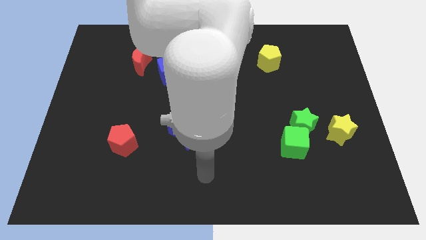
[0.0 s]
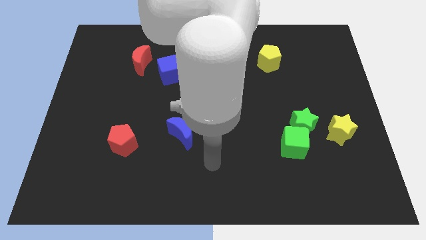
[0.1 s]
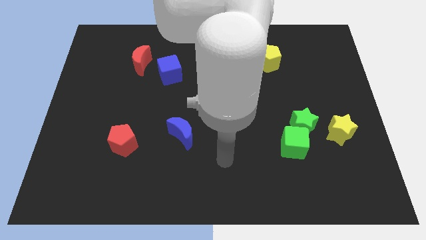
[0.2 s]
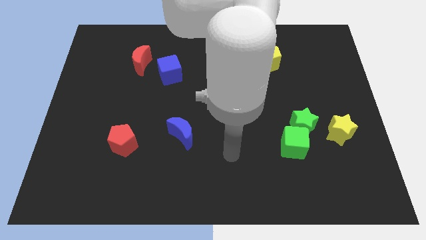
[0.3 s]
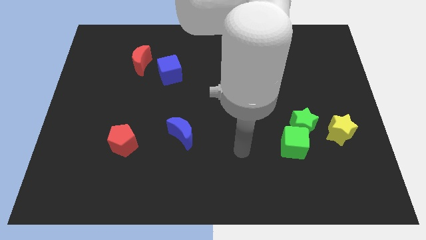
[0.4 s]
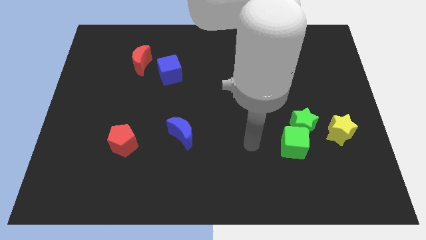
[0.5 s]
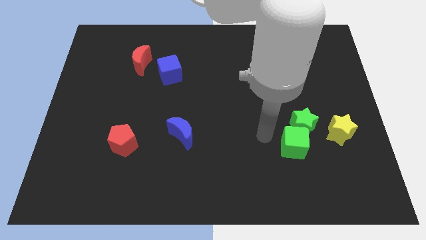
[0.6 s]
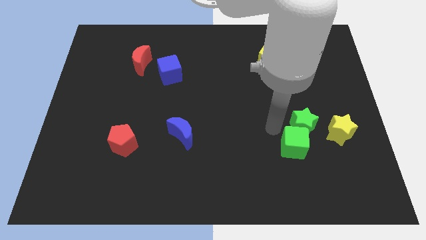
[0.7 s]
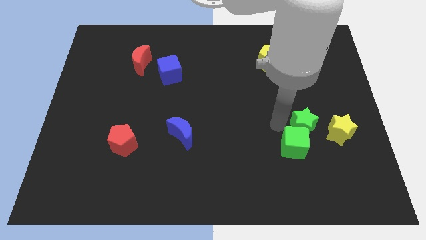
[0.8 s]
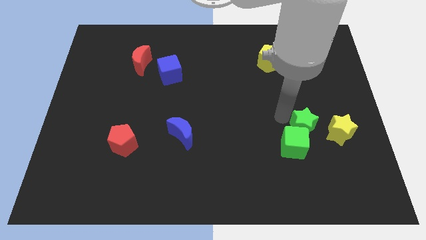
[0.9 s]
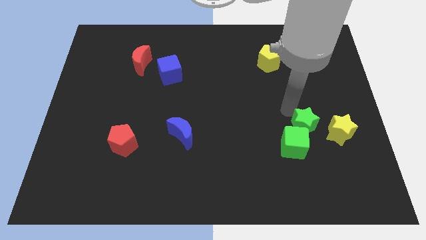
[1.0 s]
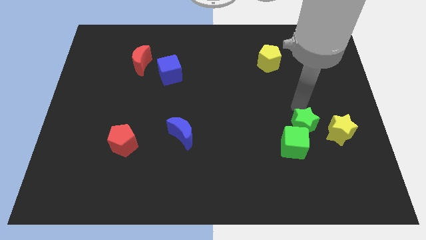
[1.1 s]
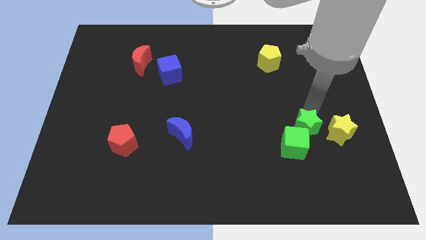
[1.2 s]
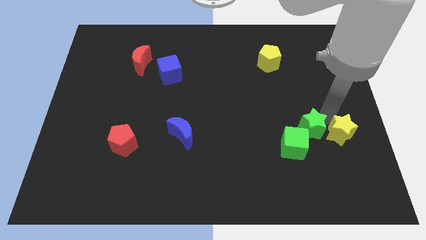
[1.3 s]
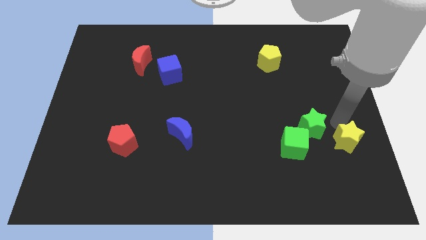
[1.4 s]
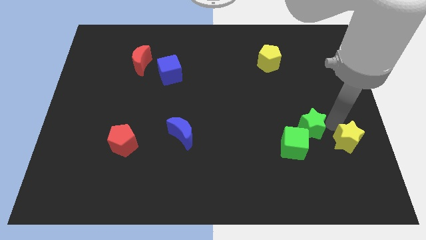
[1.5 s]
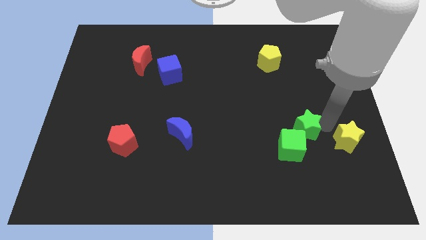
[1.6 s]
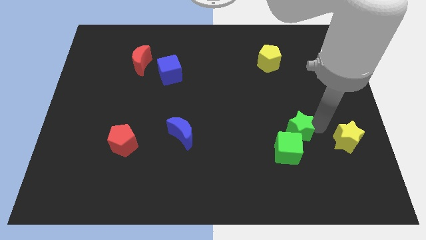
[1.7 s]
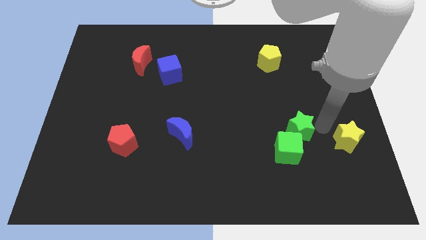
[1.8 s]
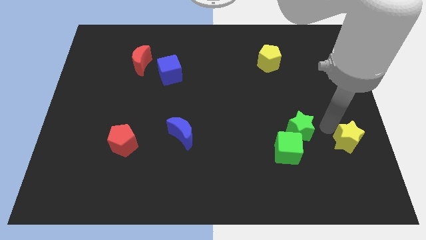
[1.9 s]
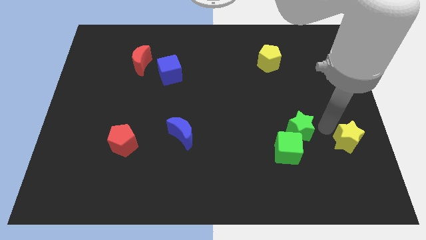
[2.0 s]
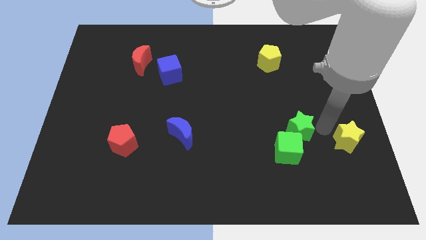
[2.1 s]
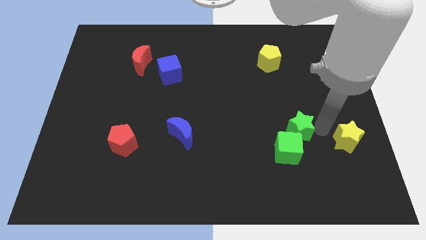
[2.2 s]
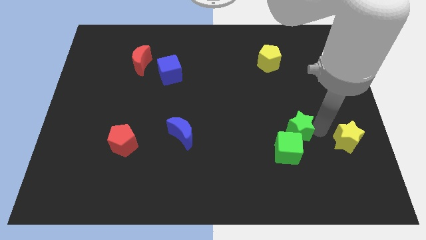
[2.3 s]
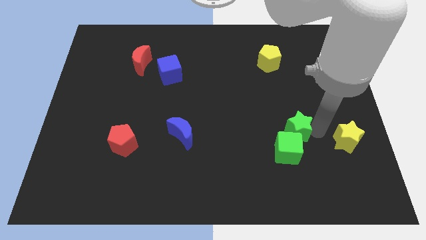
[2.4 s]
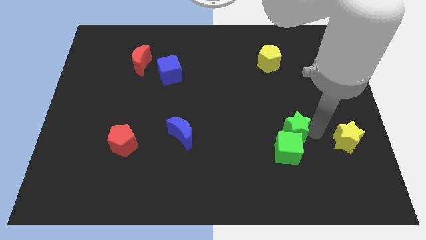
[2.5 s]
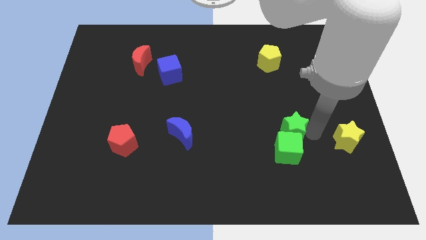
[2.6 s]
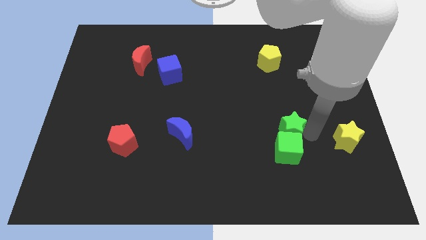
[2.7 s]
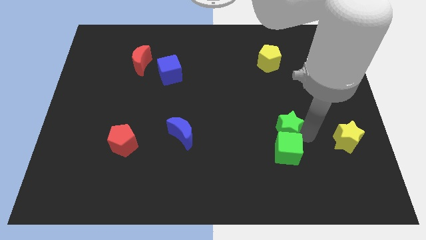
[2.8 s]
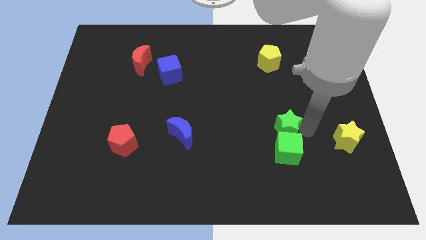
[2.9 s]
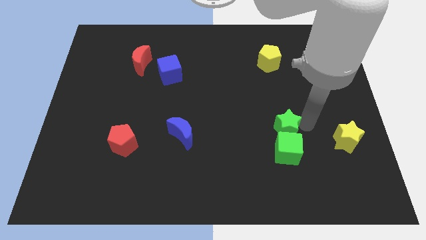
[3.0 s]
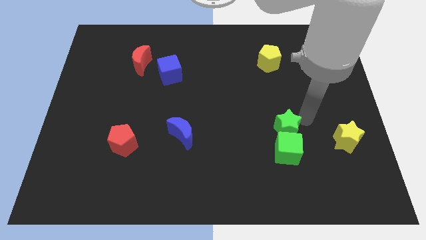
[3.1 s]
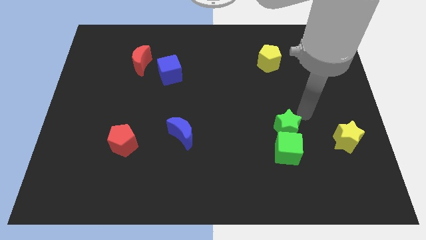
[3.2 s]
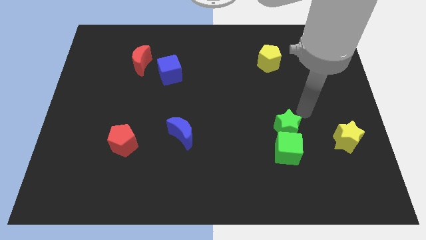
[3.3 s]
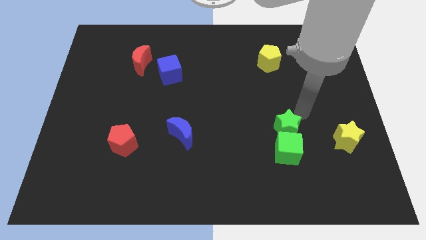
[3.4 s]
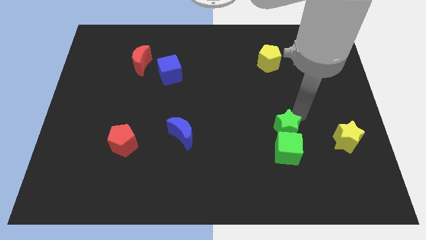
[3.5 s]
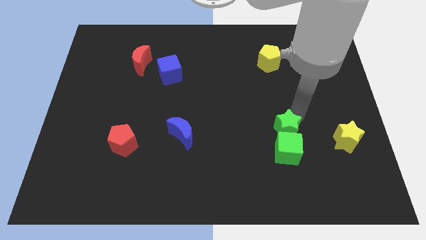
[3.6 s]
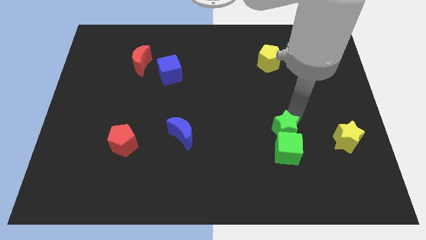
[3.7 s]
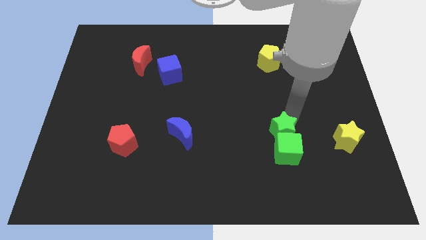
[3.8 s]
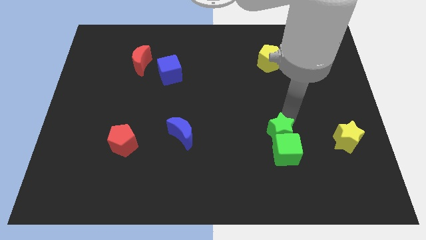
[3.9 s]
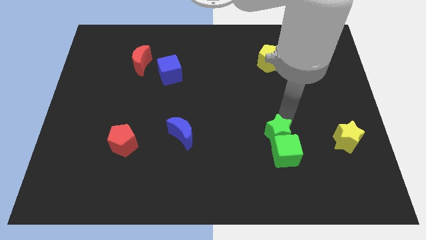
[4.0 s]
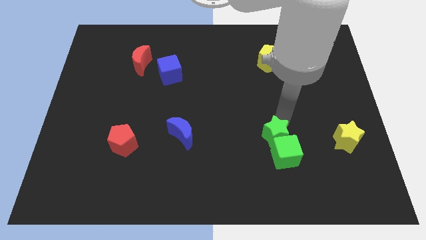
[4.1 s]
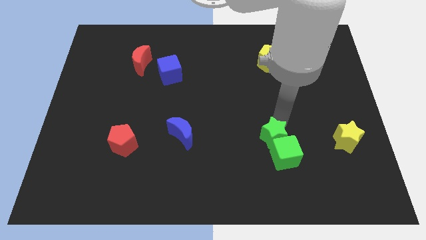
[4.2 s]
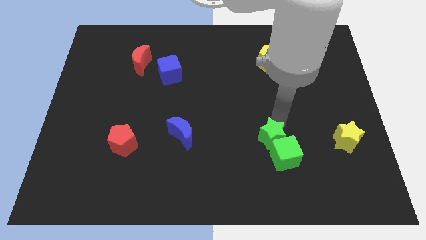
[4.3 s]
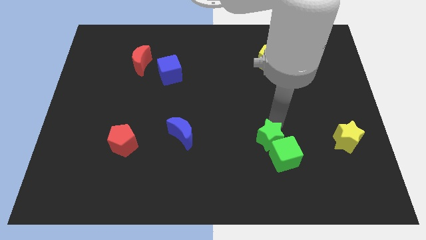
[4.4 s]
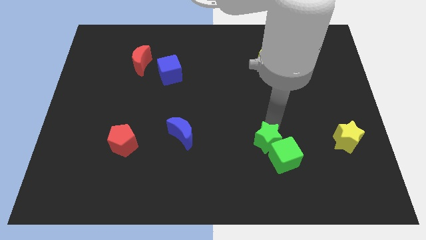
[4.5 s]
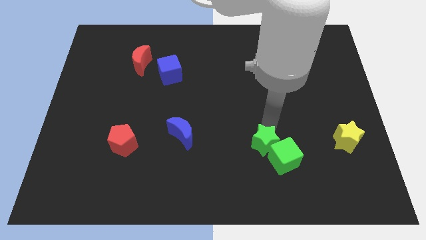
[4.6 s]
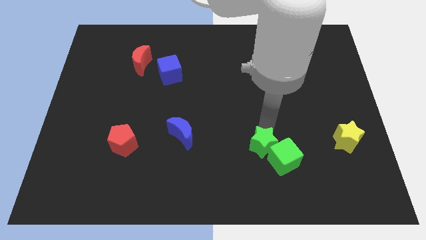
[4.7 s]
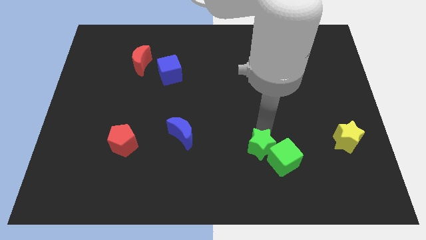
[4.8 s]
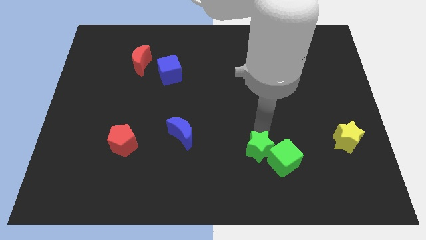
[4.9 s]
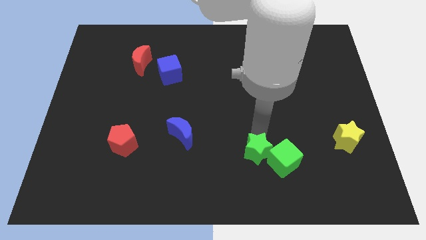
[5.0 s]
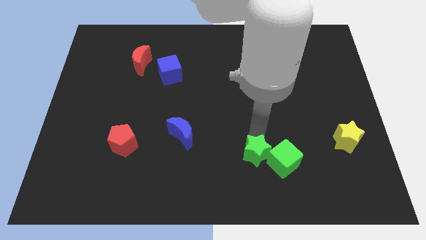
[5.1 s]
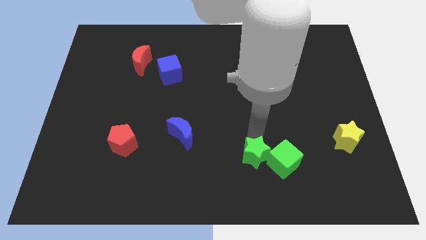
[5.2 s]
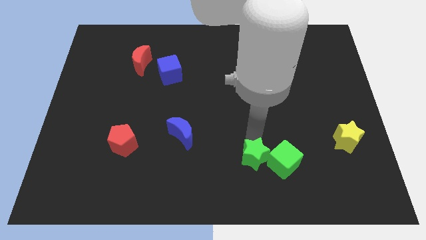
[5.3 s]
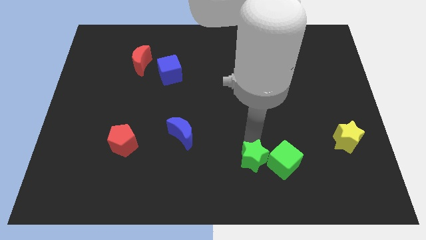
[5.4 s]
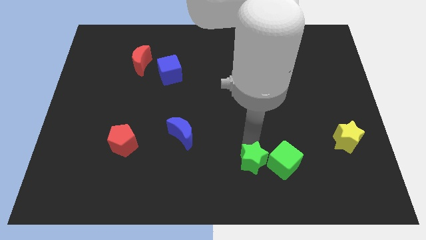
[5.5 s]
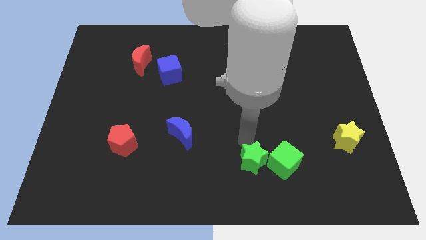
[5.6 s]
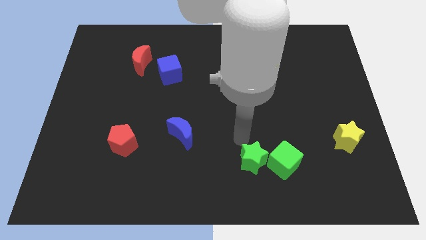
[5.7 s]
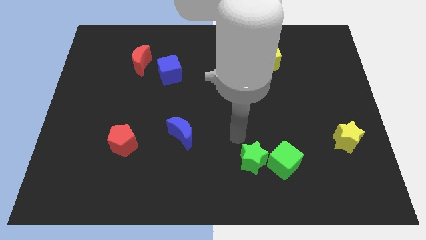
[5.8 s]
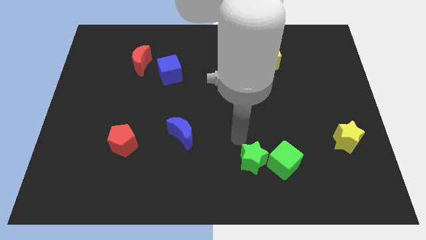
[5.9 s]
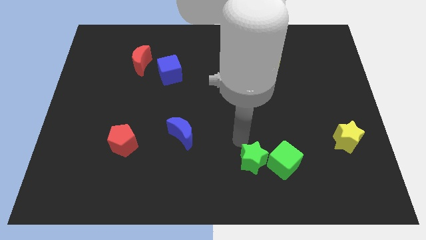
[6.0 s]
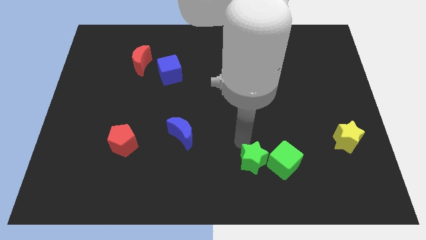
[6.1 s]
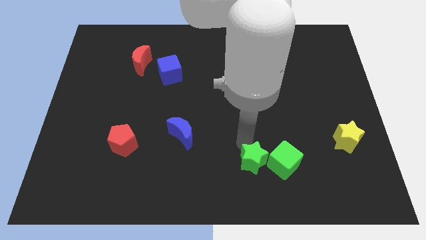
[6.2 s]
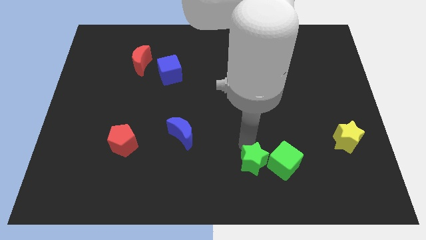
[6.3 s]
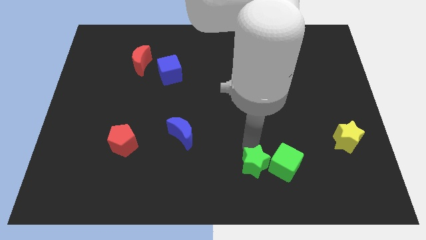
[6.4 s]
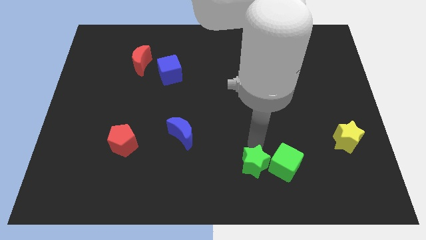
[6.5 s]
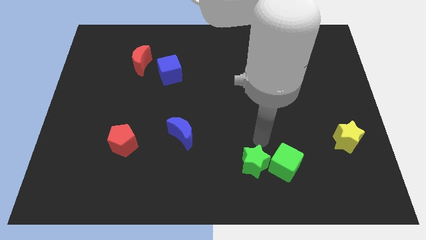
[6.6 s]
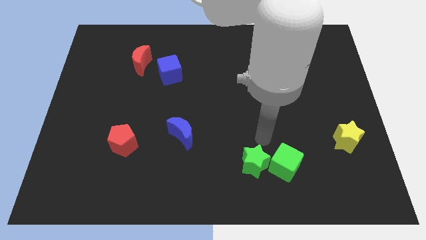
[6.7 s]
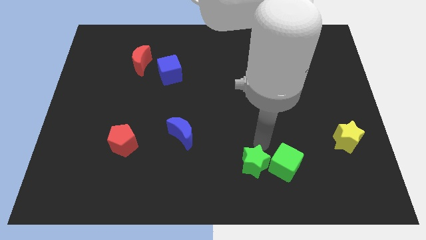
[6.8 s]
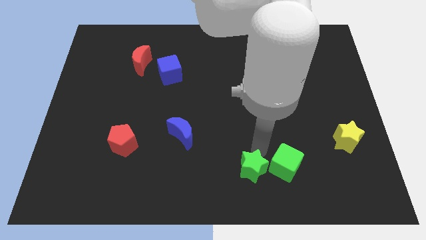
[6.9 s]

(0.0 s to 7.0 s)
put the green star to the bottom side

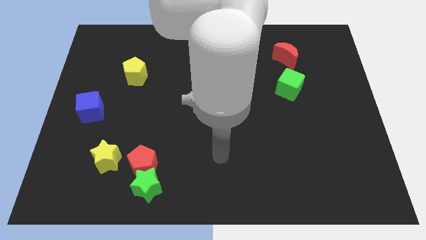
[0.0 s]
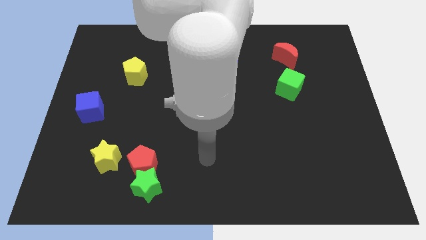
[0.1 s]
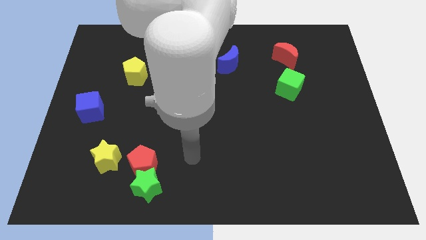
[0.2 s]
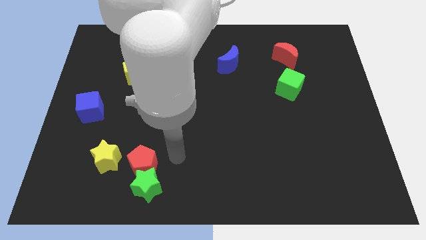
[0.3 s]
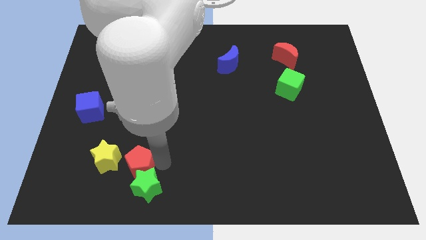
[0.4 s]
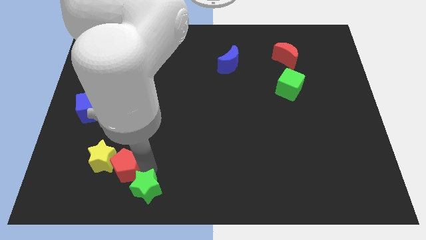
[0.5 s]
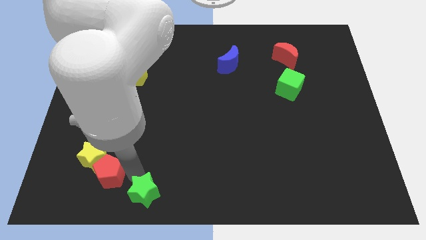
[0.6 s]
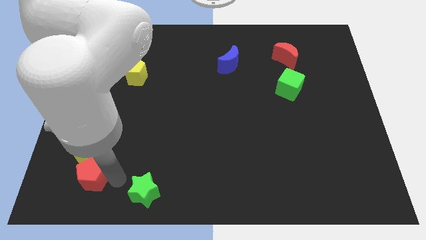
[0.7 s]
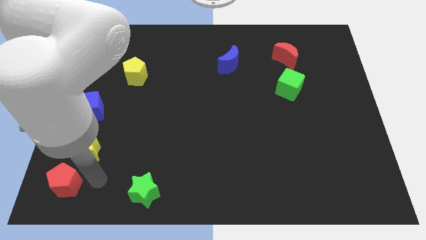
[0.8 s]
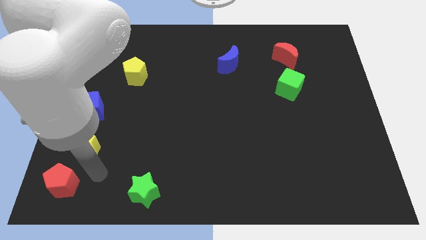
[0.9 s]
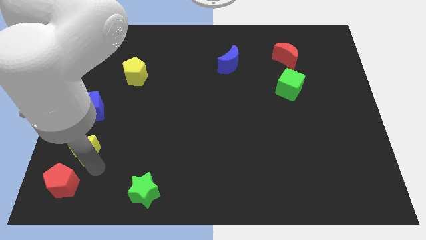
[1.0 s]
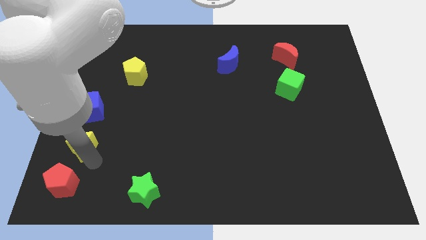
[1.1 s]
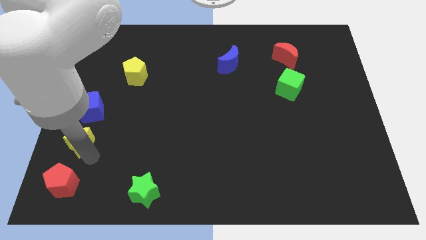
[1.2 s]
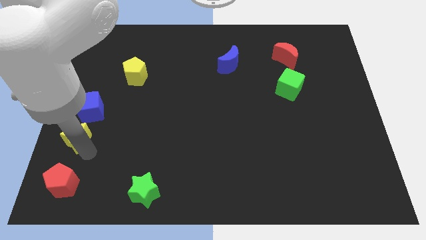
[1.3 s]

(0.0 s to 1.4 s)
put the yellow star to the left side
